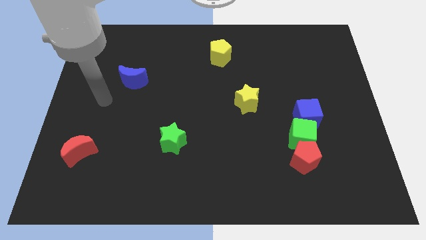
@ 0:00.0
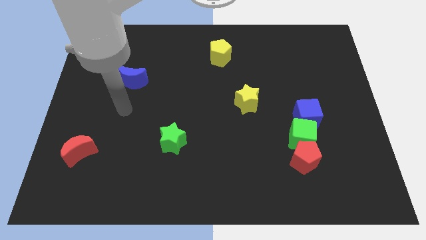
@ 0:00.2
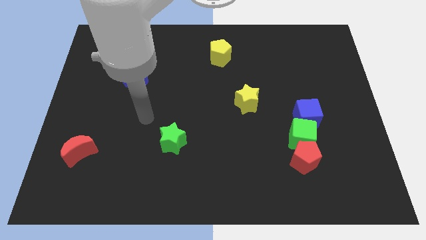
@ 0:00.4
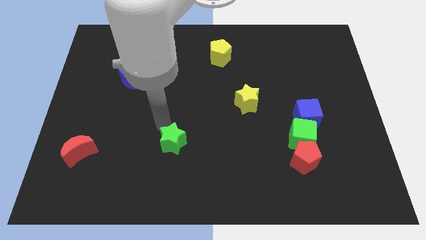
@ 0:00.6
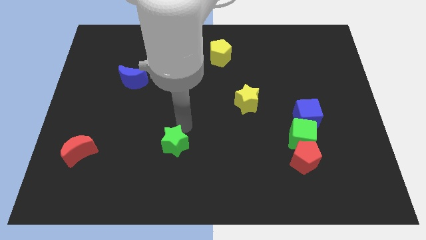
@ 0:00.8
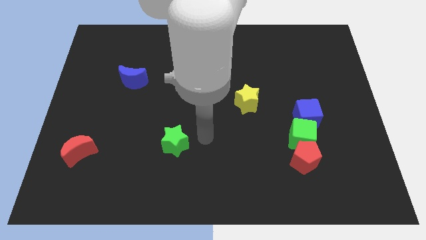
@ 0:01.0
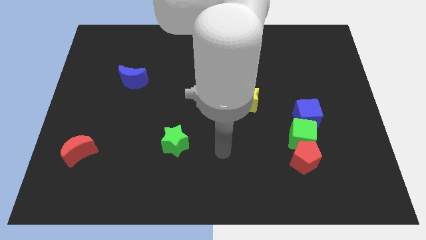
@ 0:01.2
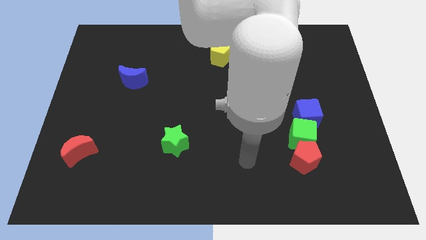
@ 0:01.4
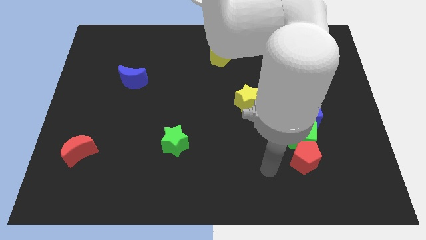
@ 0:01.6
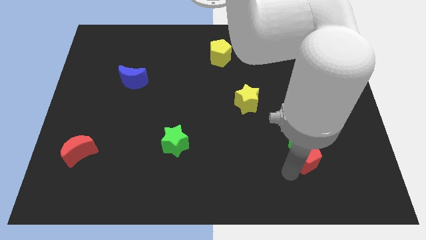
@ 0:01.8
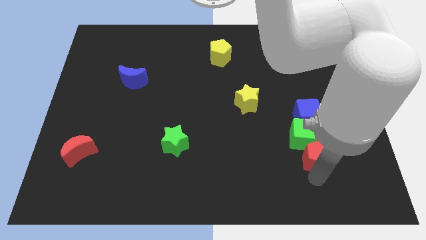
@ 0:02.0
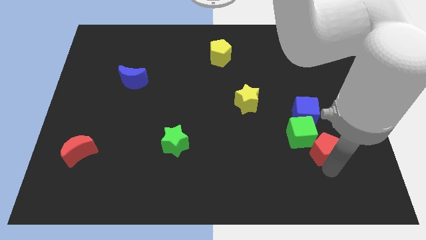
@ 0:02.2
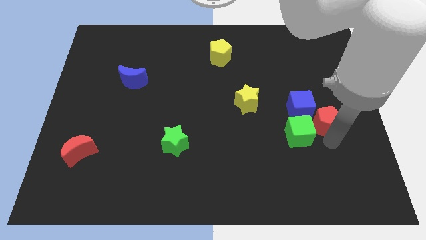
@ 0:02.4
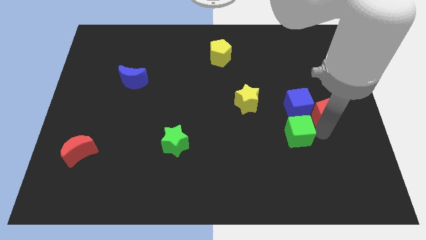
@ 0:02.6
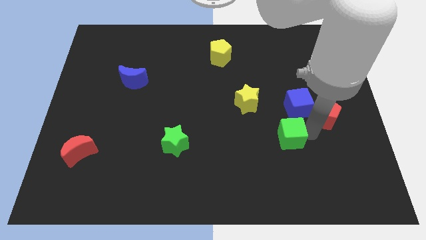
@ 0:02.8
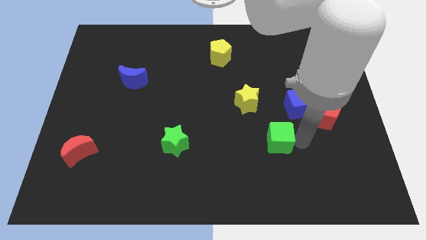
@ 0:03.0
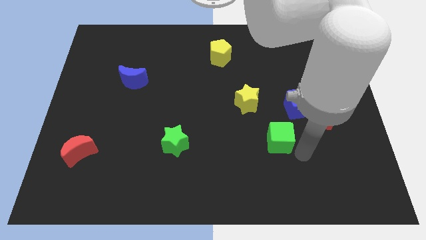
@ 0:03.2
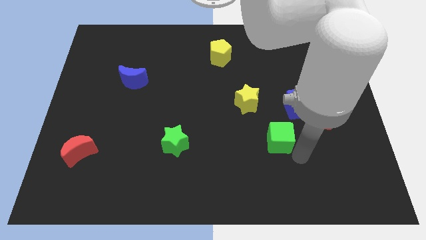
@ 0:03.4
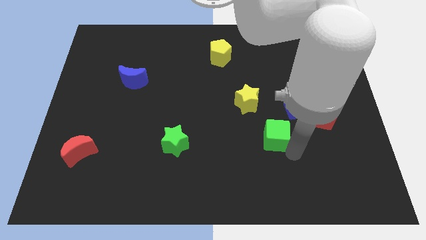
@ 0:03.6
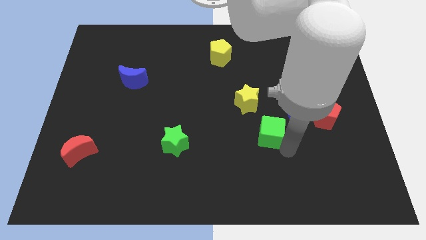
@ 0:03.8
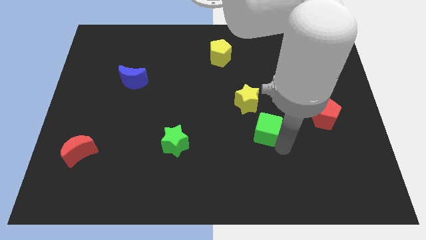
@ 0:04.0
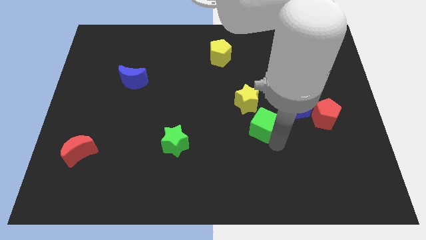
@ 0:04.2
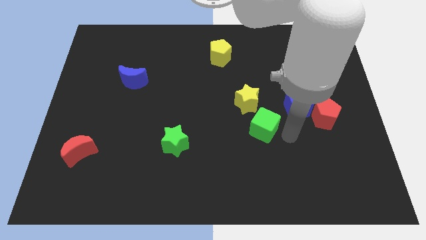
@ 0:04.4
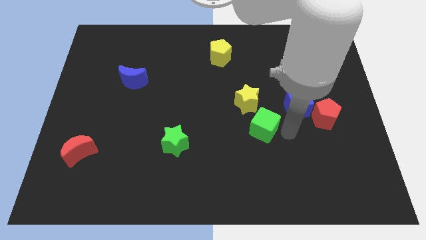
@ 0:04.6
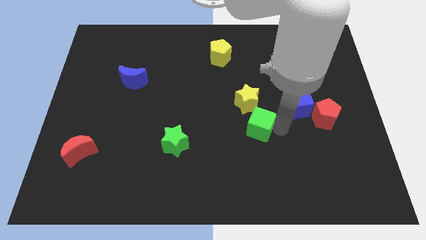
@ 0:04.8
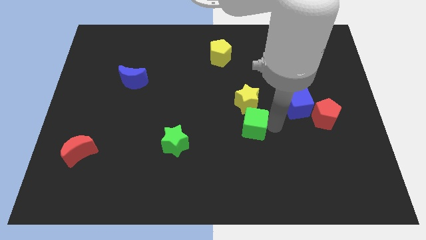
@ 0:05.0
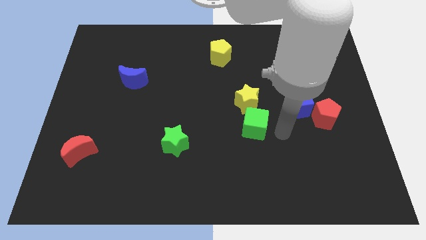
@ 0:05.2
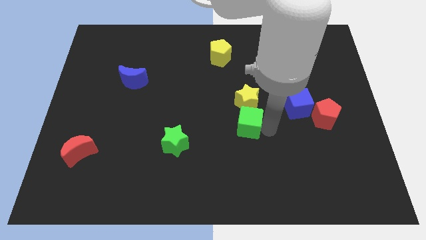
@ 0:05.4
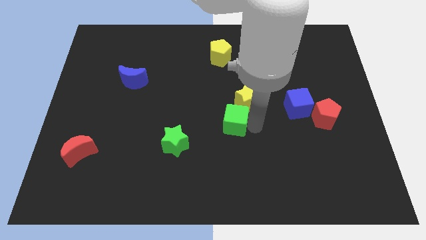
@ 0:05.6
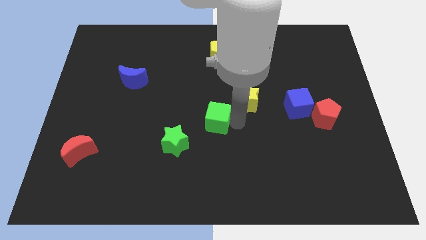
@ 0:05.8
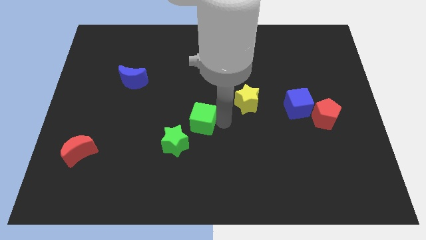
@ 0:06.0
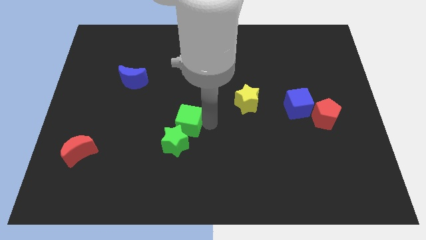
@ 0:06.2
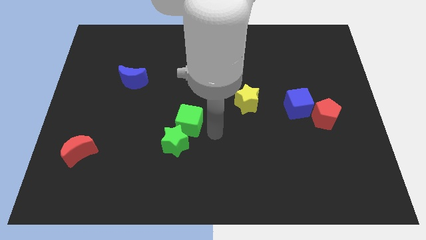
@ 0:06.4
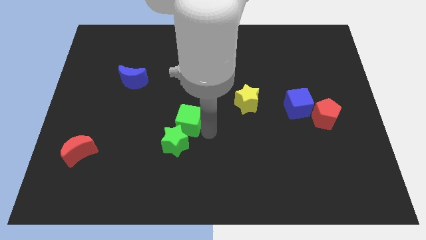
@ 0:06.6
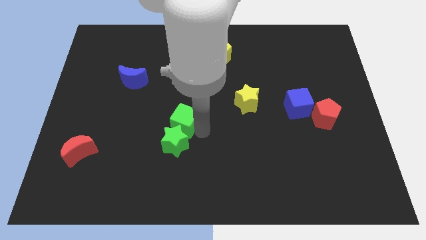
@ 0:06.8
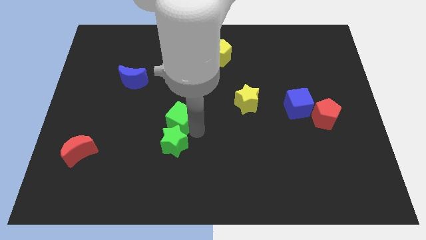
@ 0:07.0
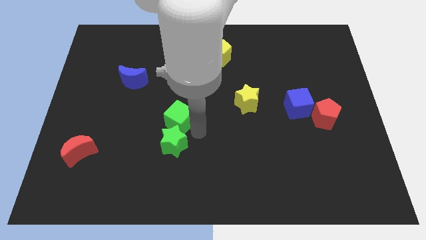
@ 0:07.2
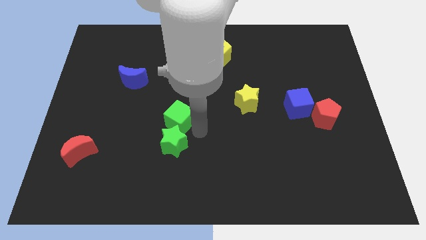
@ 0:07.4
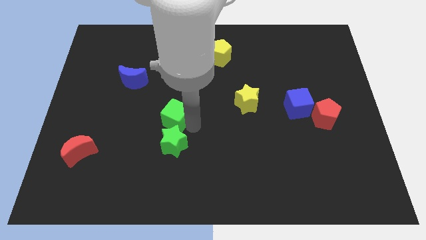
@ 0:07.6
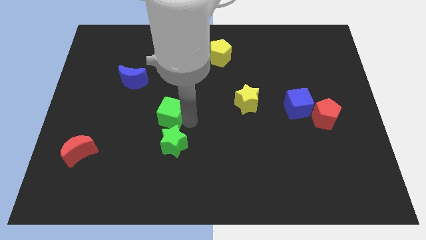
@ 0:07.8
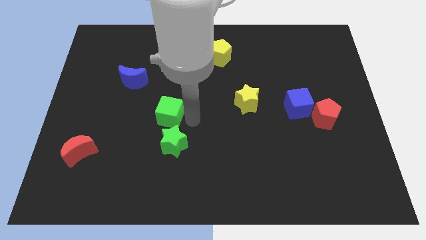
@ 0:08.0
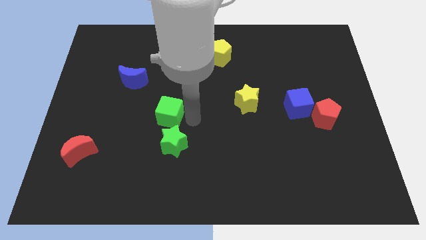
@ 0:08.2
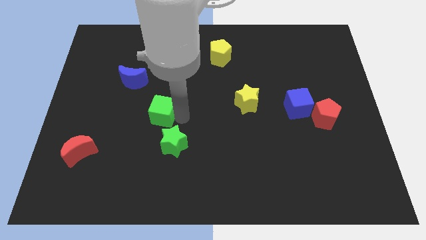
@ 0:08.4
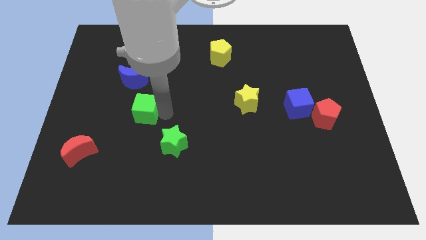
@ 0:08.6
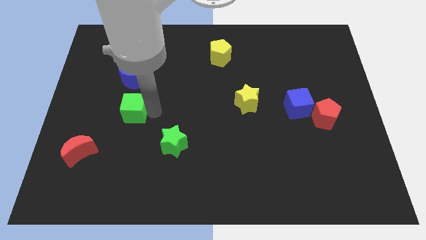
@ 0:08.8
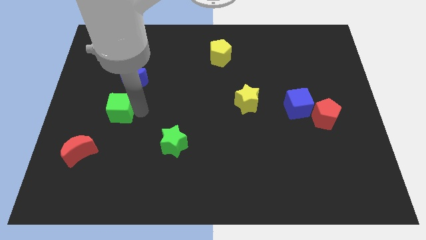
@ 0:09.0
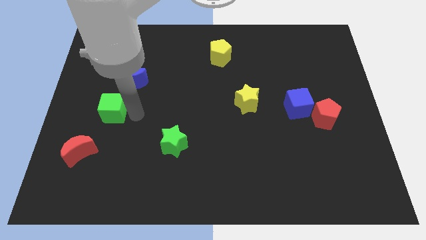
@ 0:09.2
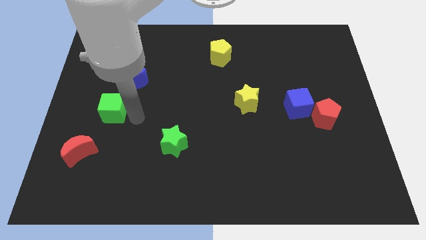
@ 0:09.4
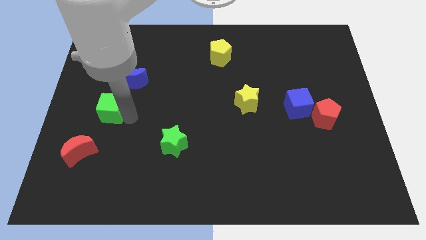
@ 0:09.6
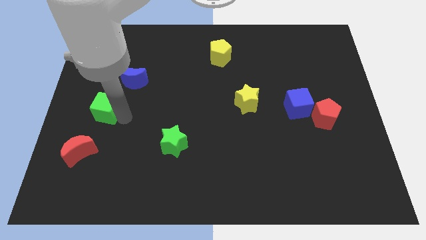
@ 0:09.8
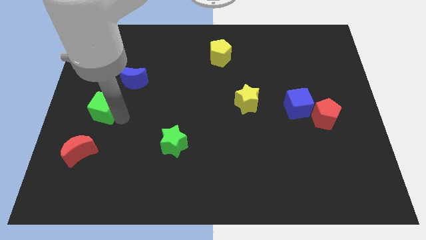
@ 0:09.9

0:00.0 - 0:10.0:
move the green cube to the center left
